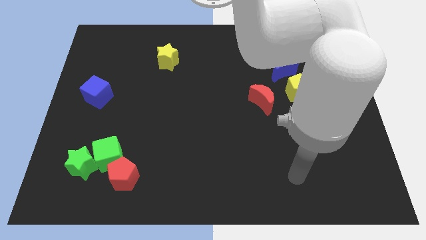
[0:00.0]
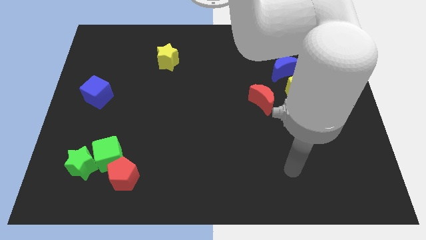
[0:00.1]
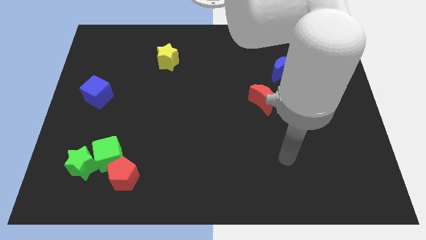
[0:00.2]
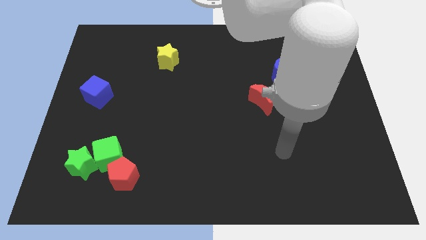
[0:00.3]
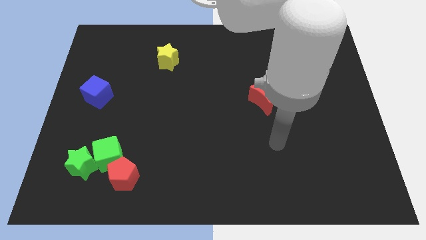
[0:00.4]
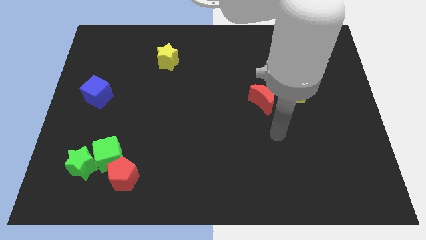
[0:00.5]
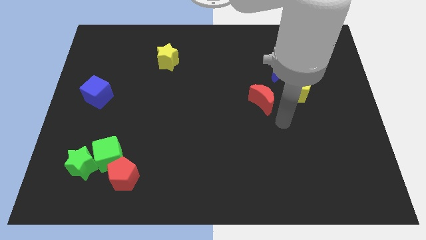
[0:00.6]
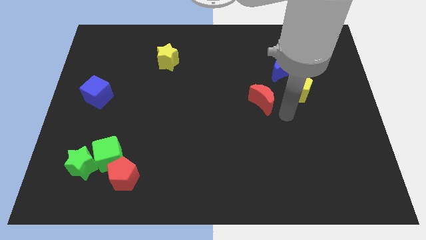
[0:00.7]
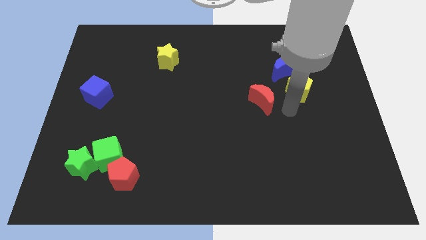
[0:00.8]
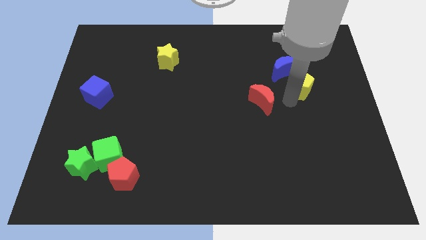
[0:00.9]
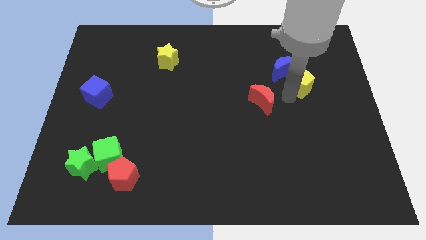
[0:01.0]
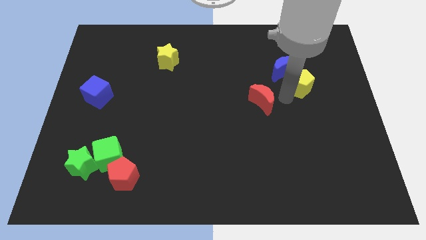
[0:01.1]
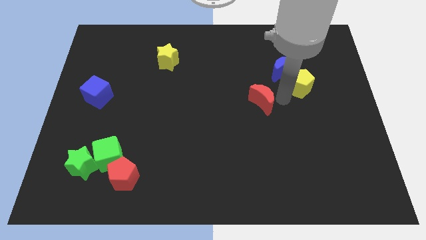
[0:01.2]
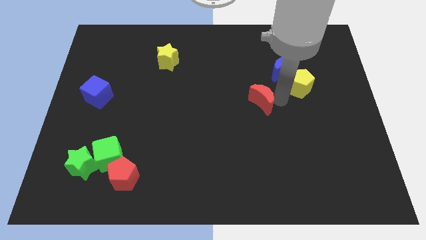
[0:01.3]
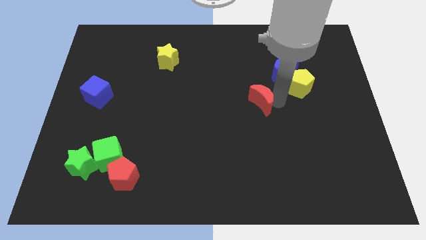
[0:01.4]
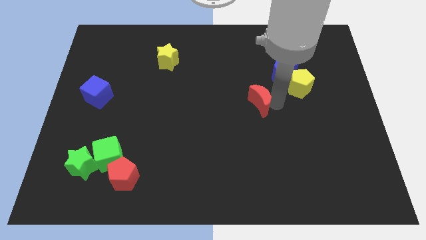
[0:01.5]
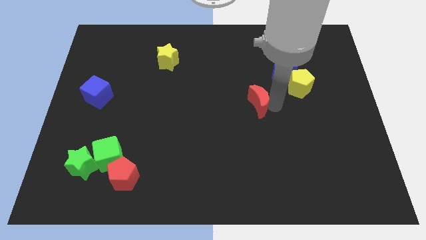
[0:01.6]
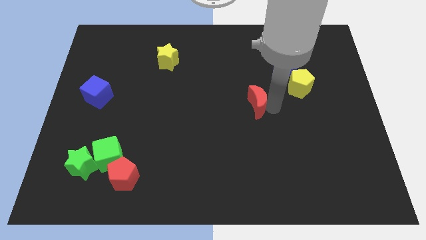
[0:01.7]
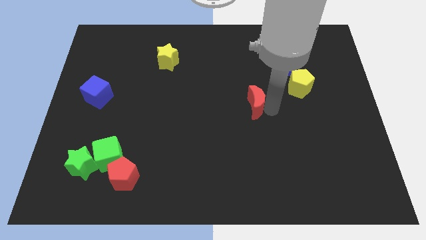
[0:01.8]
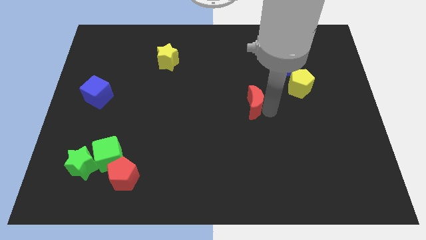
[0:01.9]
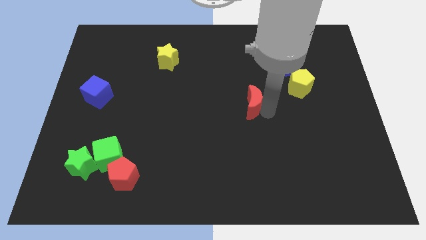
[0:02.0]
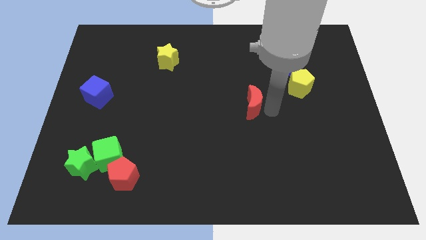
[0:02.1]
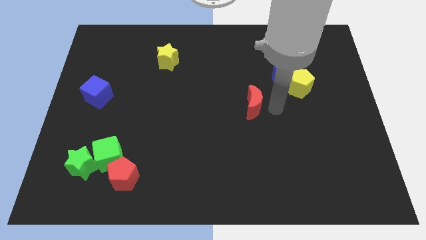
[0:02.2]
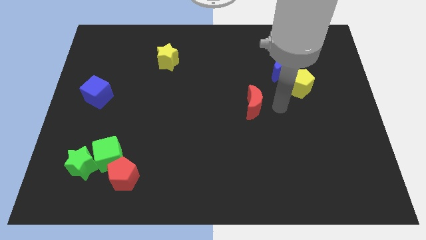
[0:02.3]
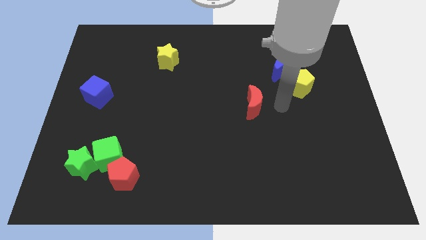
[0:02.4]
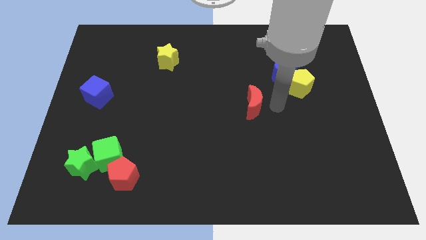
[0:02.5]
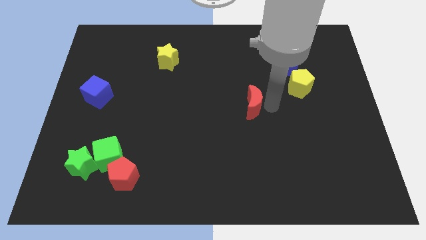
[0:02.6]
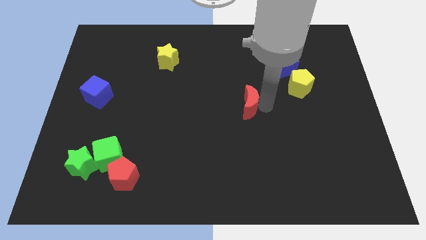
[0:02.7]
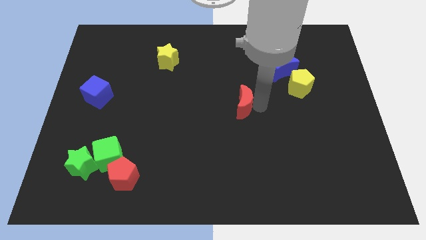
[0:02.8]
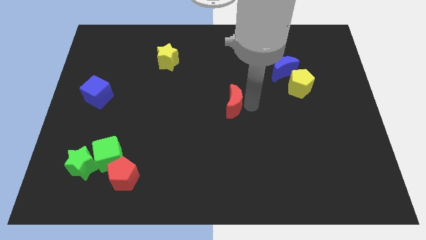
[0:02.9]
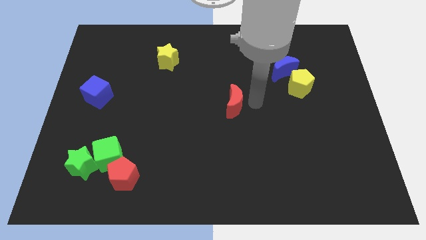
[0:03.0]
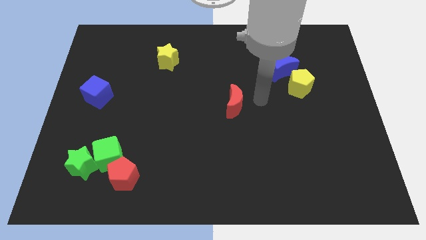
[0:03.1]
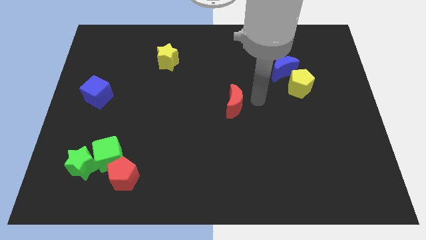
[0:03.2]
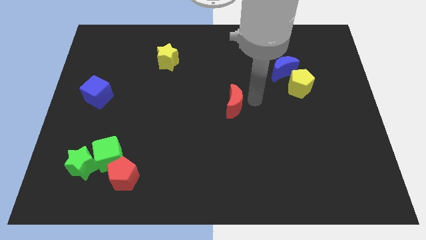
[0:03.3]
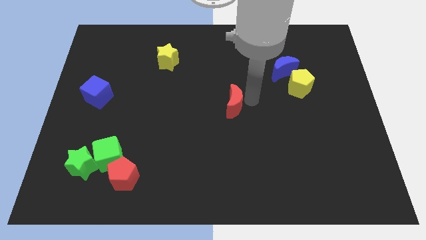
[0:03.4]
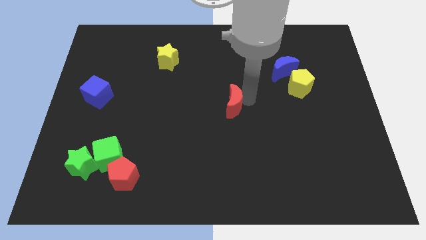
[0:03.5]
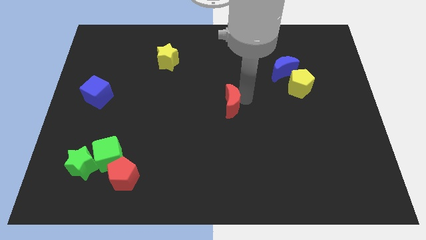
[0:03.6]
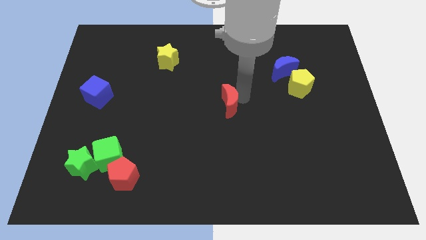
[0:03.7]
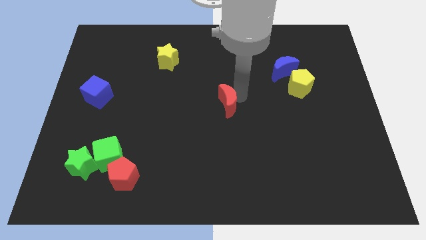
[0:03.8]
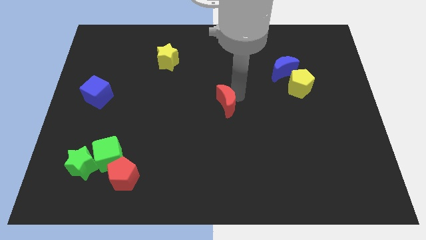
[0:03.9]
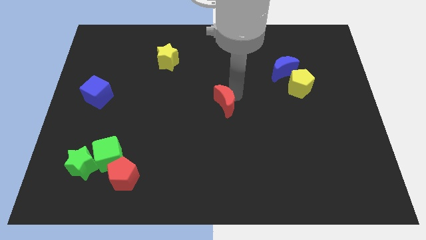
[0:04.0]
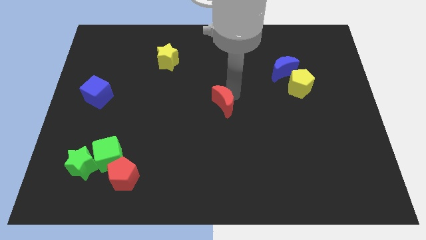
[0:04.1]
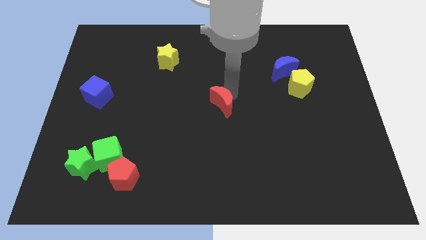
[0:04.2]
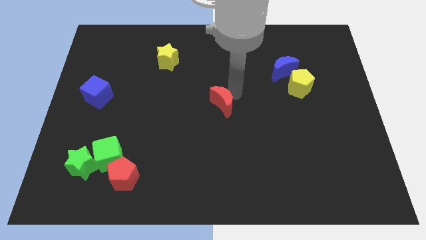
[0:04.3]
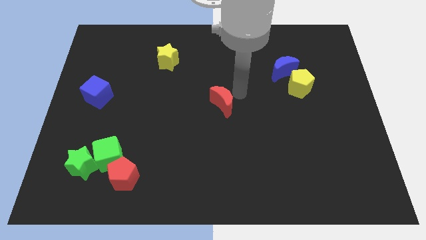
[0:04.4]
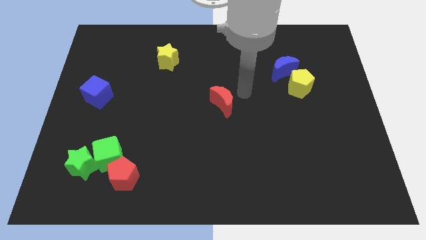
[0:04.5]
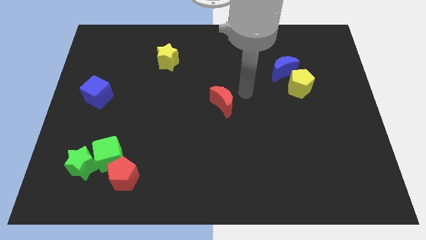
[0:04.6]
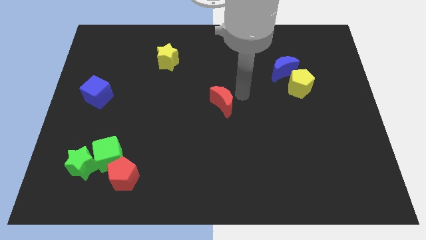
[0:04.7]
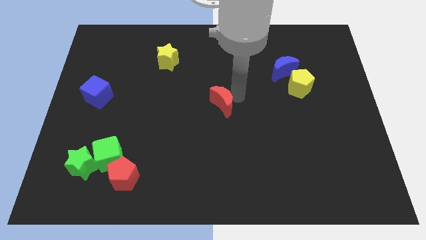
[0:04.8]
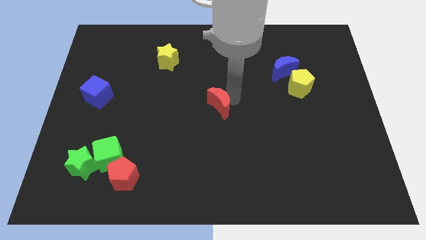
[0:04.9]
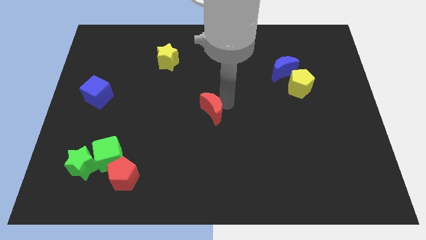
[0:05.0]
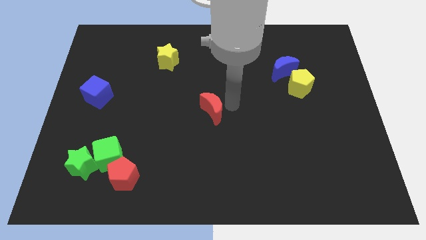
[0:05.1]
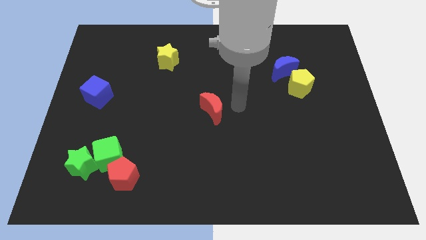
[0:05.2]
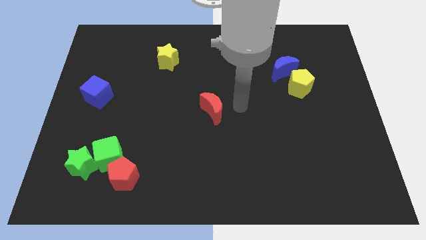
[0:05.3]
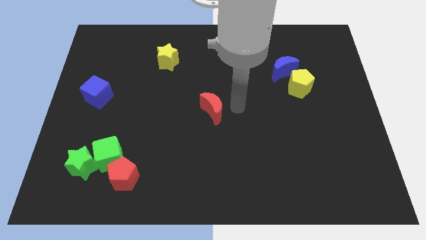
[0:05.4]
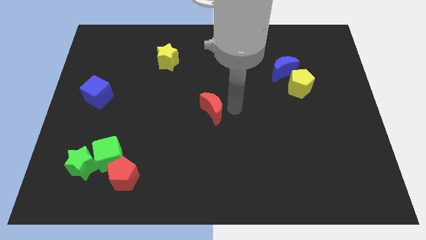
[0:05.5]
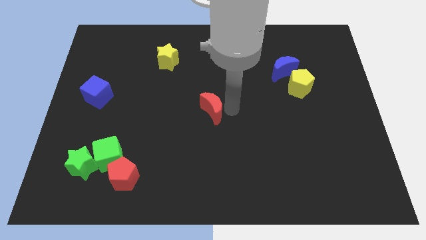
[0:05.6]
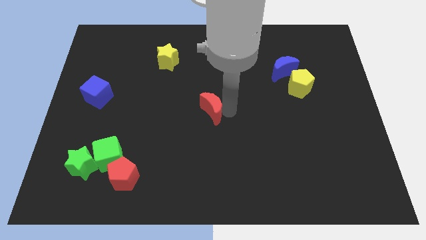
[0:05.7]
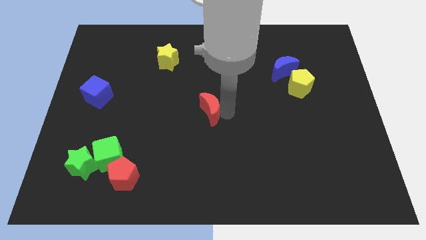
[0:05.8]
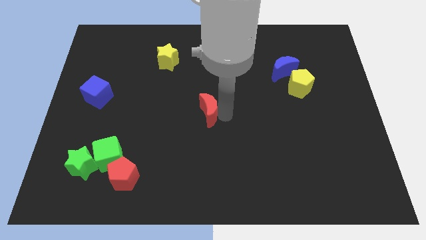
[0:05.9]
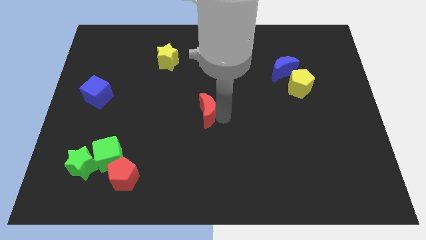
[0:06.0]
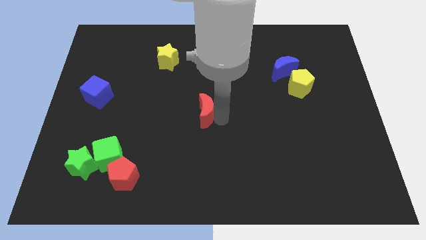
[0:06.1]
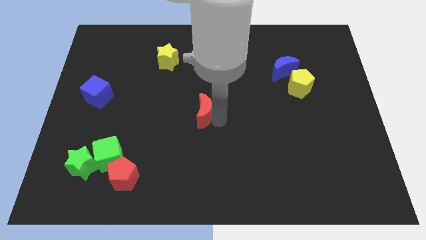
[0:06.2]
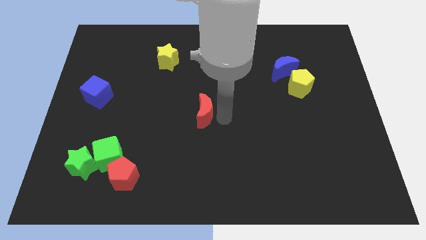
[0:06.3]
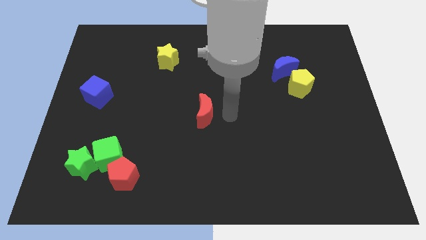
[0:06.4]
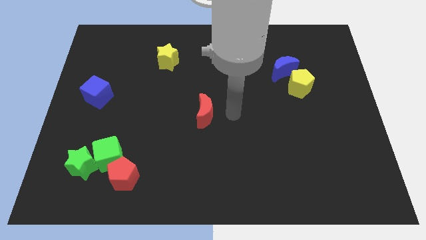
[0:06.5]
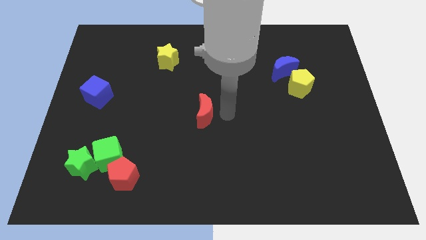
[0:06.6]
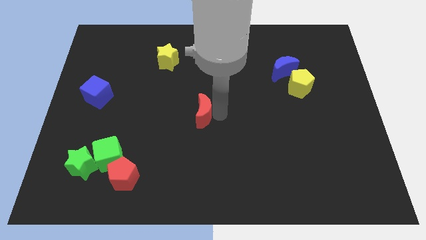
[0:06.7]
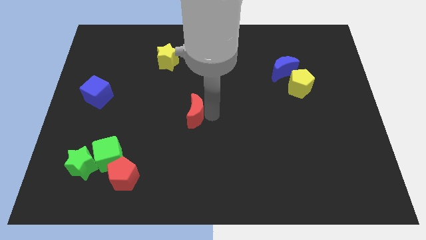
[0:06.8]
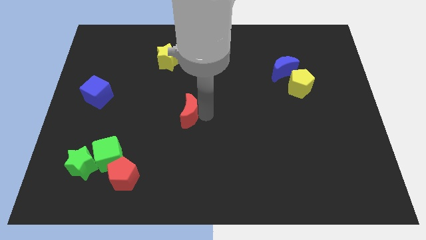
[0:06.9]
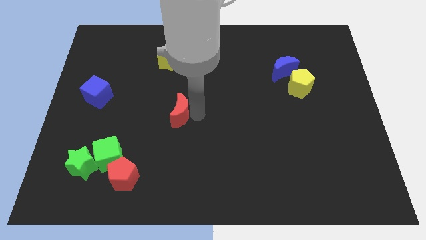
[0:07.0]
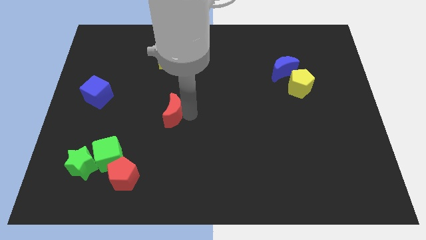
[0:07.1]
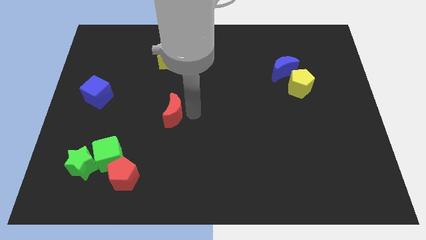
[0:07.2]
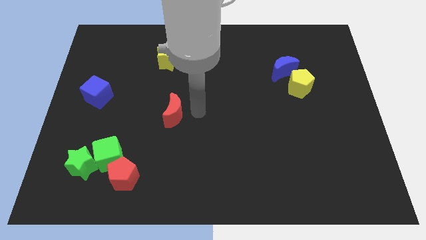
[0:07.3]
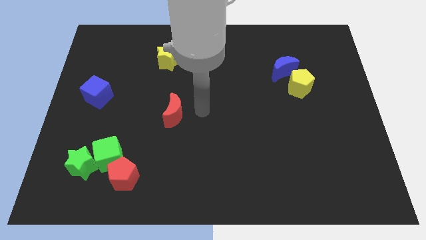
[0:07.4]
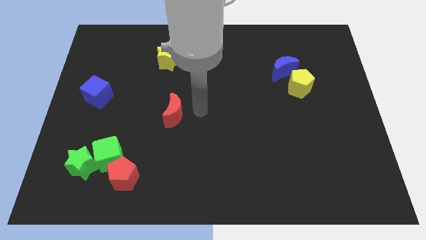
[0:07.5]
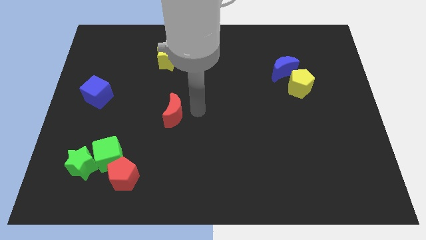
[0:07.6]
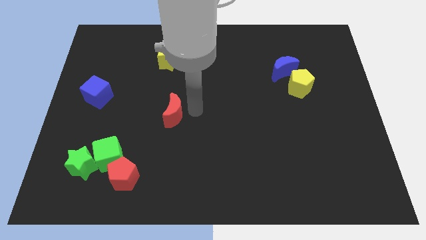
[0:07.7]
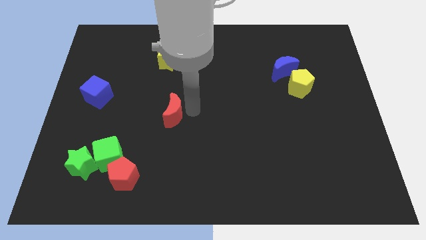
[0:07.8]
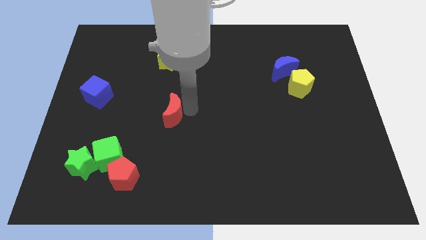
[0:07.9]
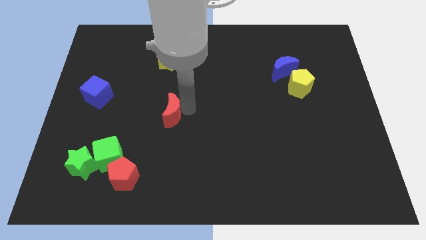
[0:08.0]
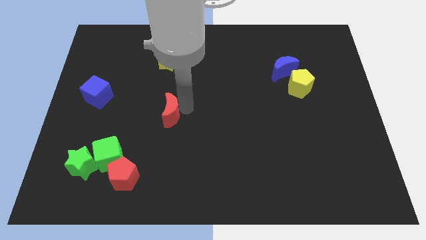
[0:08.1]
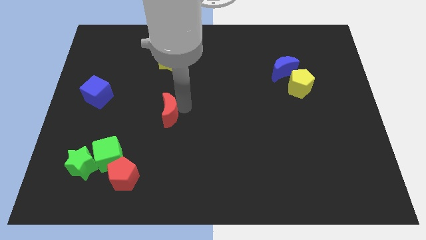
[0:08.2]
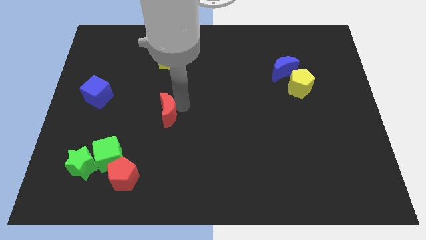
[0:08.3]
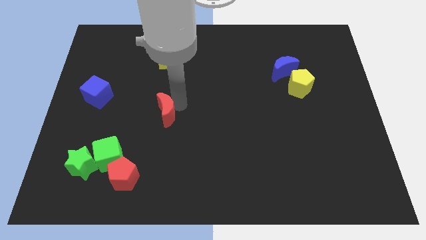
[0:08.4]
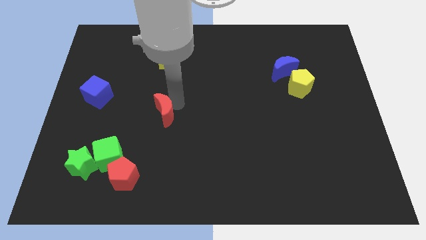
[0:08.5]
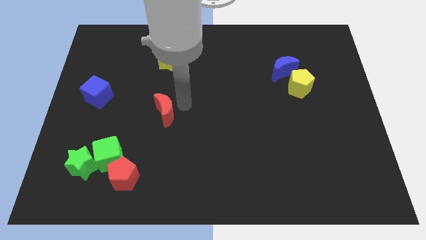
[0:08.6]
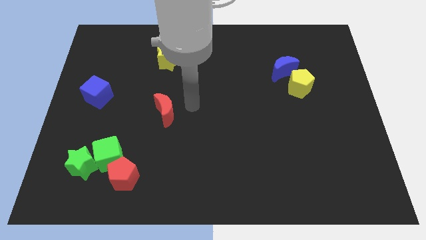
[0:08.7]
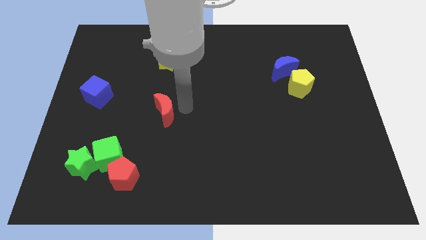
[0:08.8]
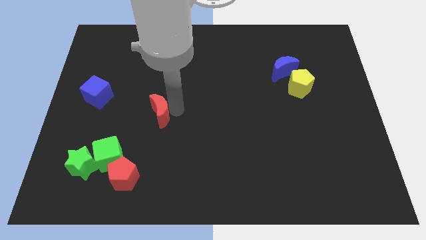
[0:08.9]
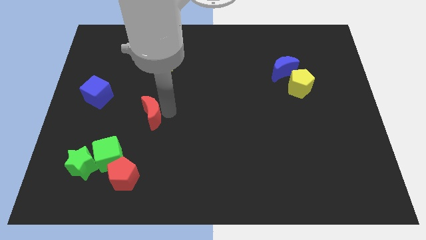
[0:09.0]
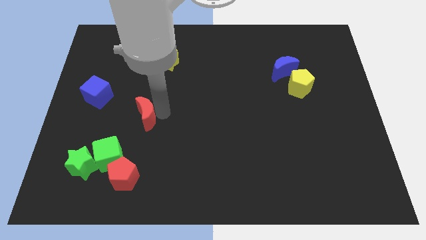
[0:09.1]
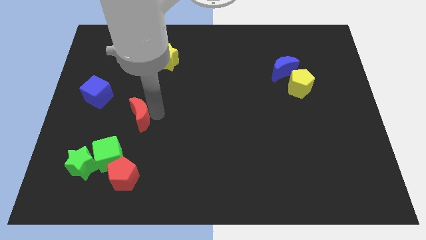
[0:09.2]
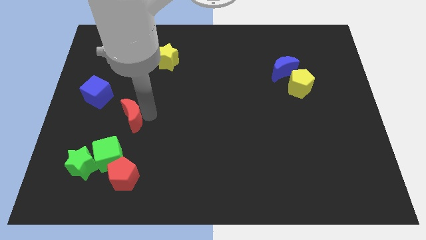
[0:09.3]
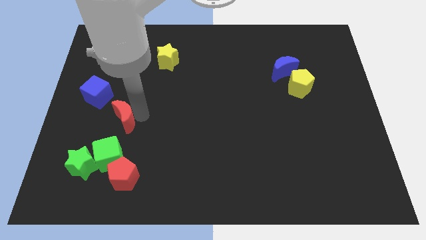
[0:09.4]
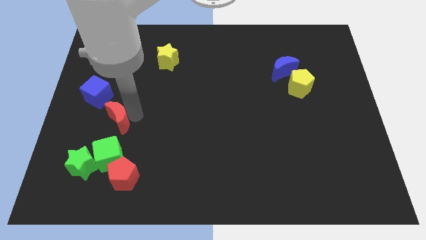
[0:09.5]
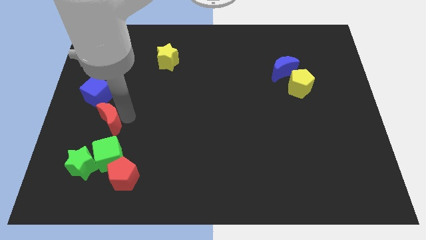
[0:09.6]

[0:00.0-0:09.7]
push the red moon to the bottom side of the blue cube
